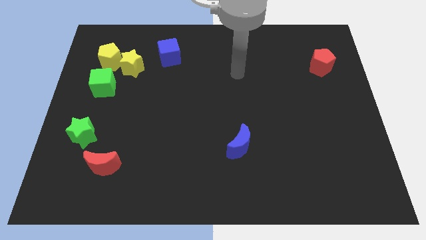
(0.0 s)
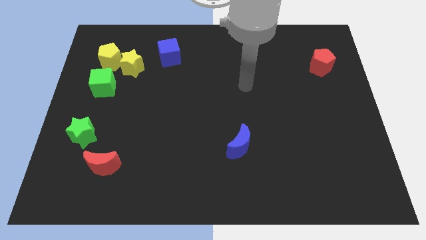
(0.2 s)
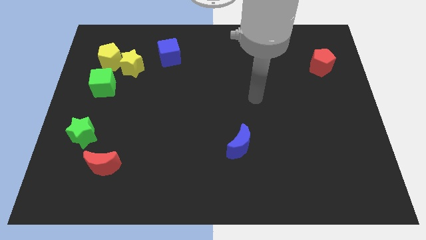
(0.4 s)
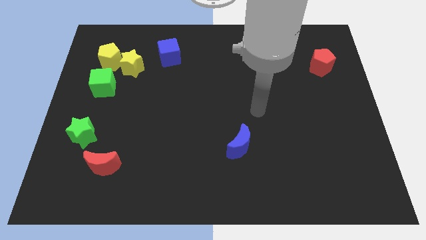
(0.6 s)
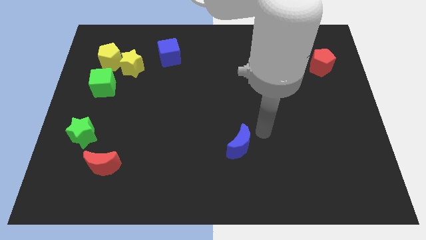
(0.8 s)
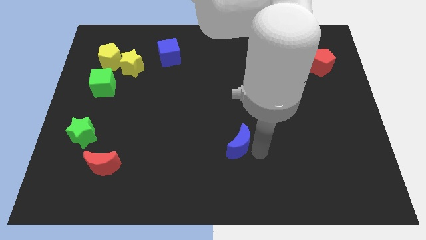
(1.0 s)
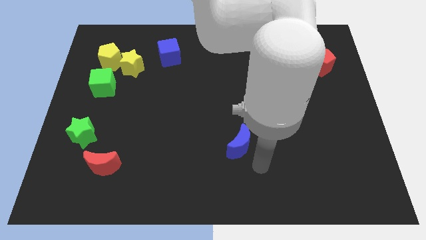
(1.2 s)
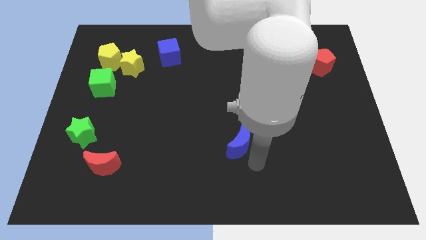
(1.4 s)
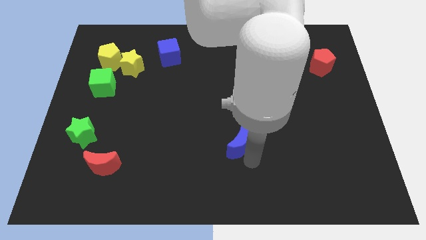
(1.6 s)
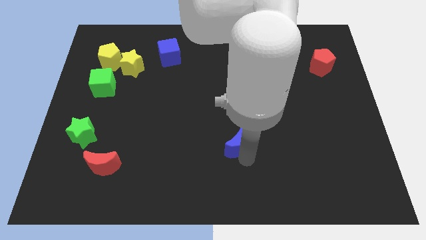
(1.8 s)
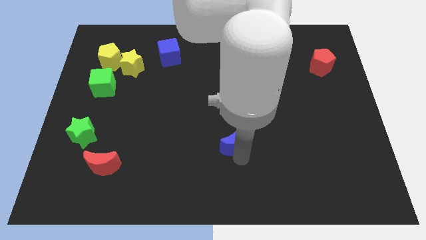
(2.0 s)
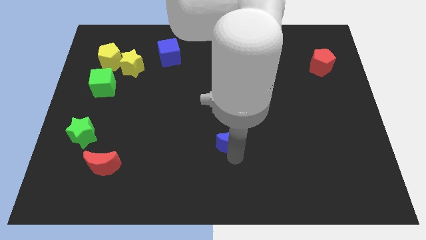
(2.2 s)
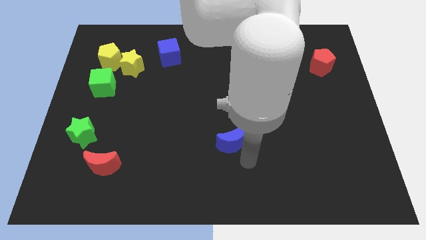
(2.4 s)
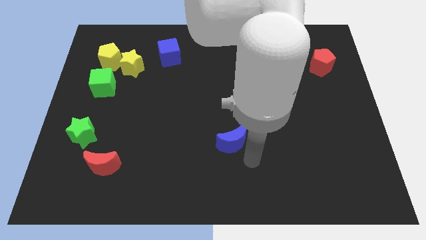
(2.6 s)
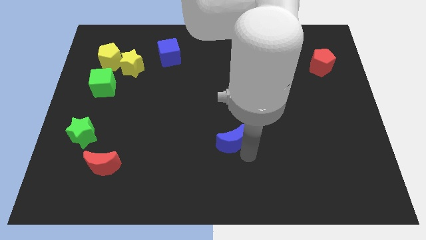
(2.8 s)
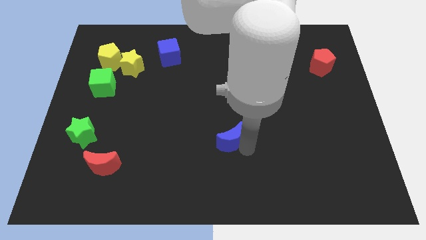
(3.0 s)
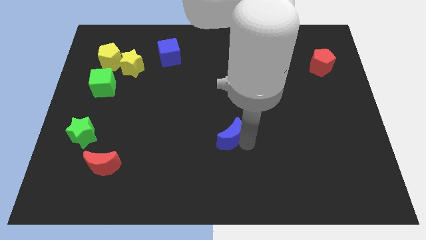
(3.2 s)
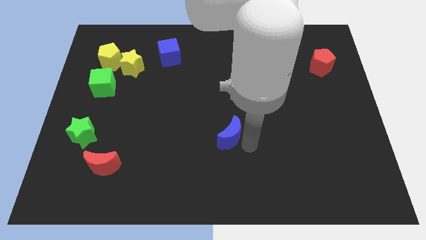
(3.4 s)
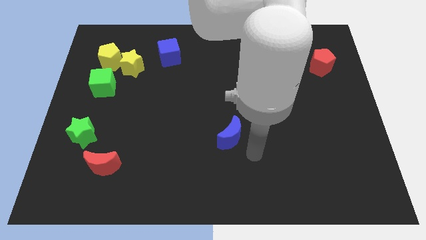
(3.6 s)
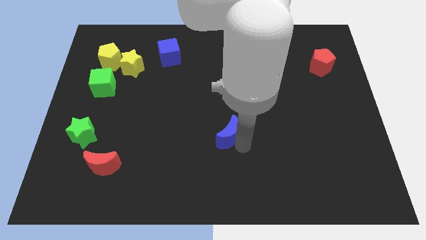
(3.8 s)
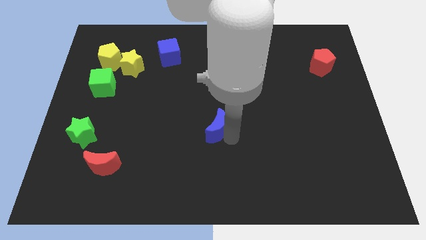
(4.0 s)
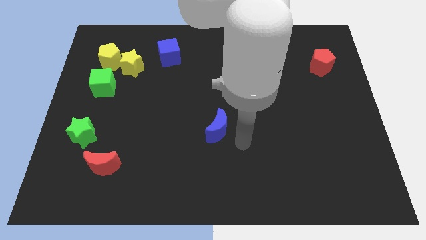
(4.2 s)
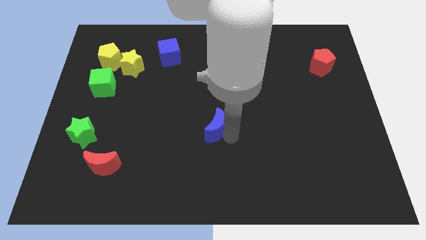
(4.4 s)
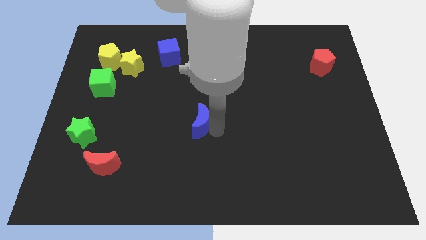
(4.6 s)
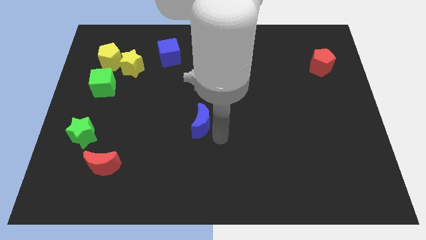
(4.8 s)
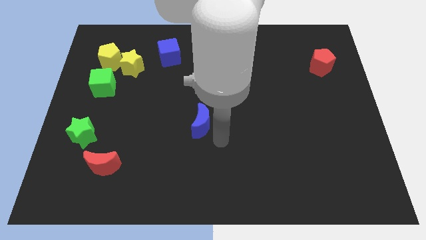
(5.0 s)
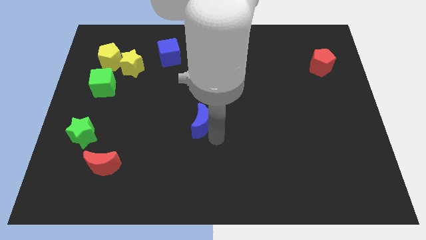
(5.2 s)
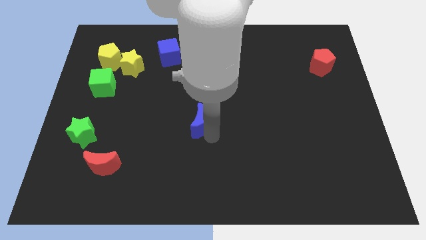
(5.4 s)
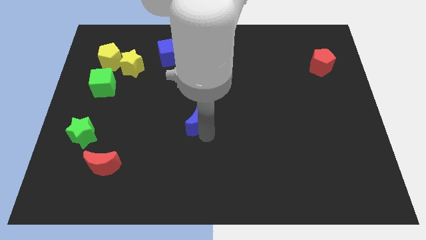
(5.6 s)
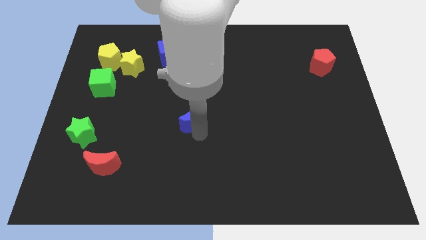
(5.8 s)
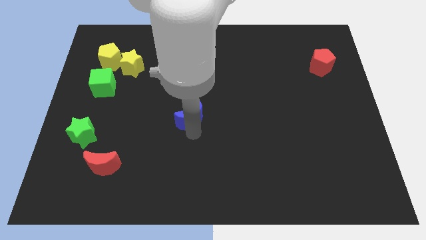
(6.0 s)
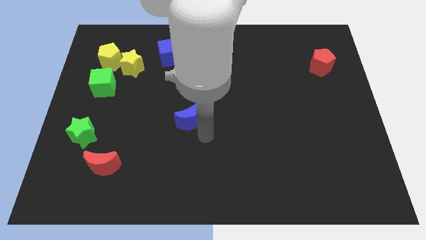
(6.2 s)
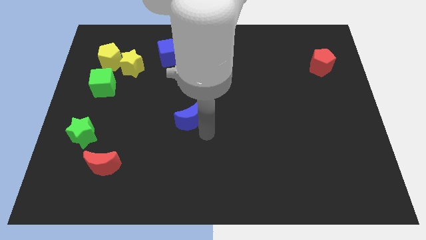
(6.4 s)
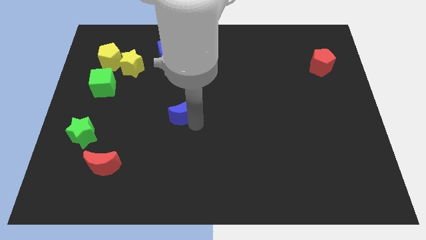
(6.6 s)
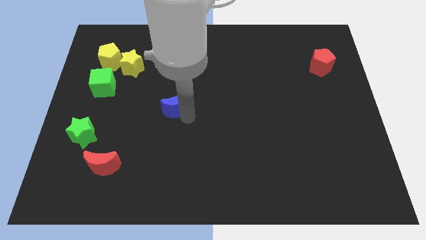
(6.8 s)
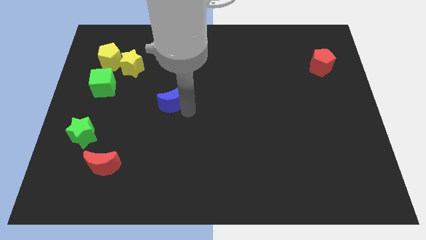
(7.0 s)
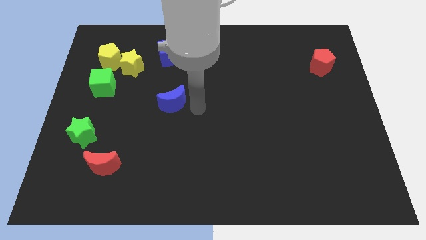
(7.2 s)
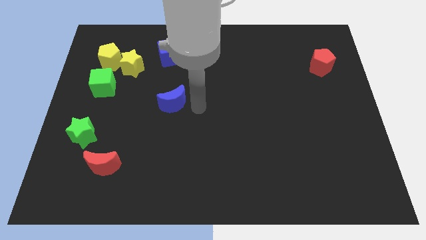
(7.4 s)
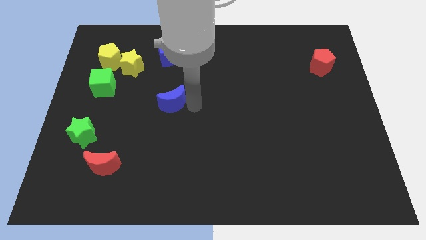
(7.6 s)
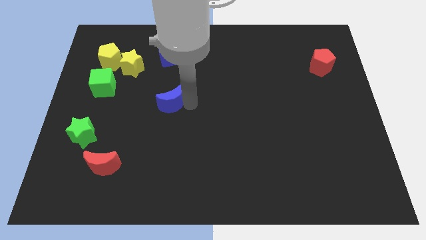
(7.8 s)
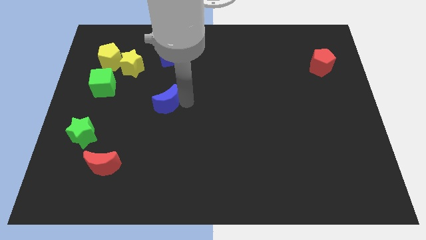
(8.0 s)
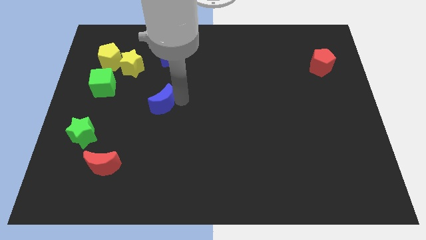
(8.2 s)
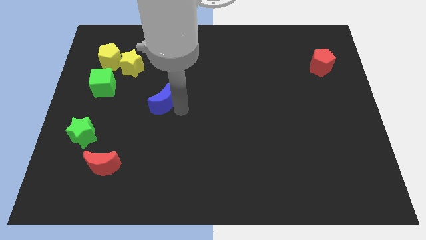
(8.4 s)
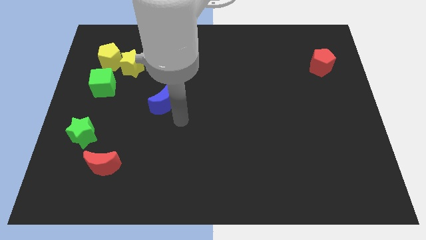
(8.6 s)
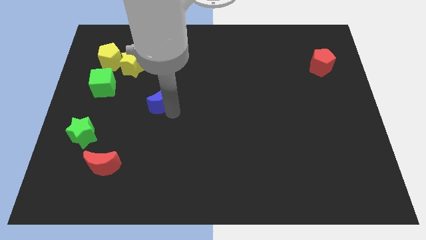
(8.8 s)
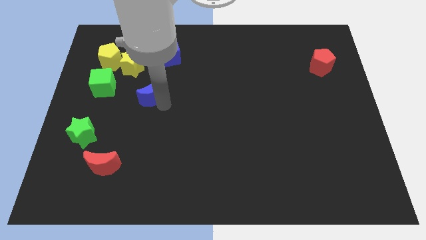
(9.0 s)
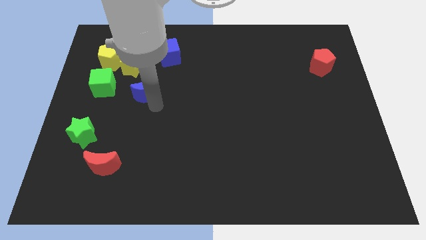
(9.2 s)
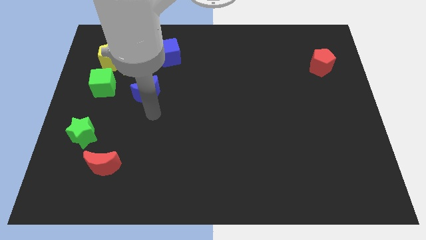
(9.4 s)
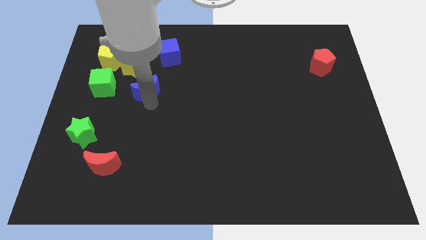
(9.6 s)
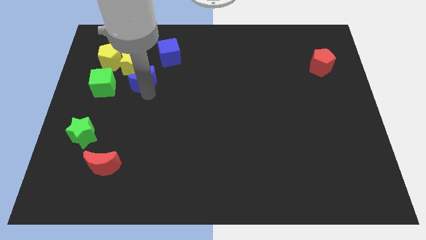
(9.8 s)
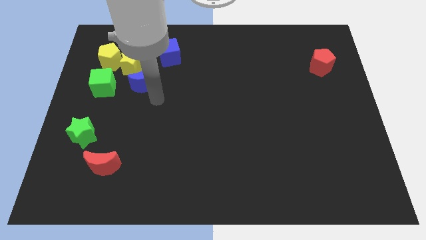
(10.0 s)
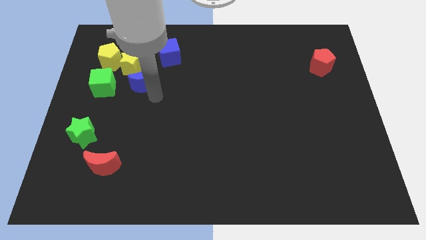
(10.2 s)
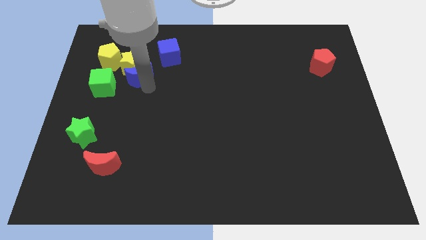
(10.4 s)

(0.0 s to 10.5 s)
move the blue moon next to the yellow star

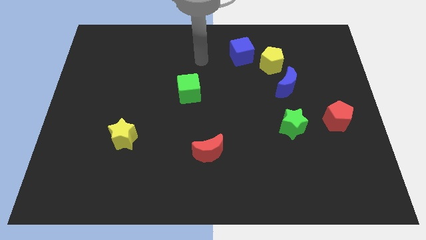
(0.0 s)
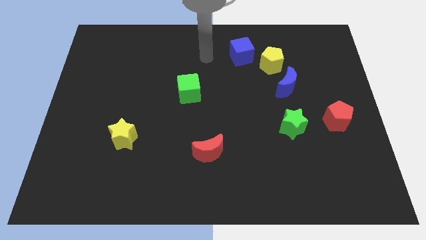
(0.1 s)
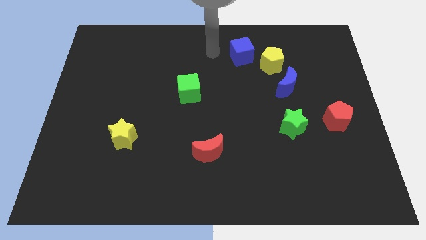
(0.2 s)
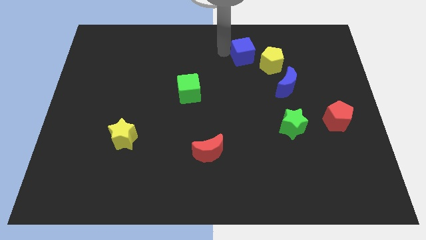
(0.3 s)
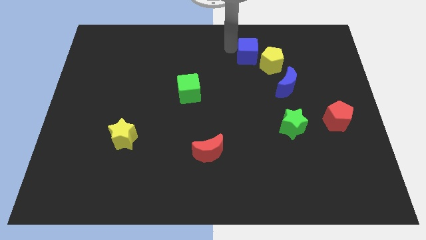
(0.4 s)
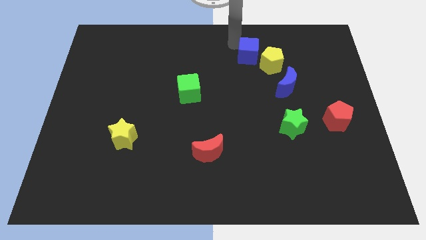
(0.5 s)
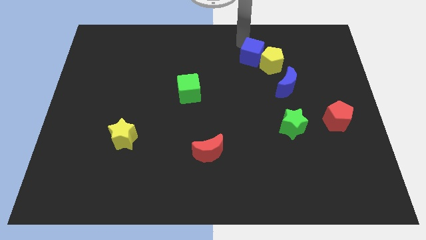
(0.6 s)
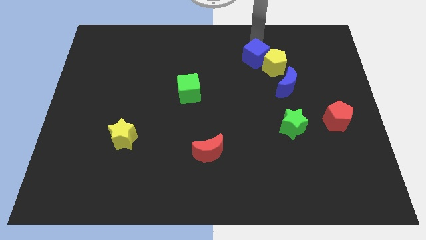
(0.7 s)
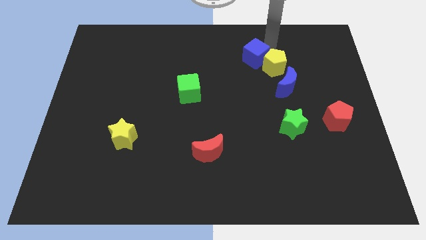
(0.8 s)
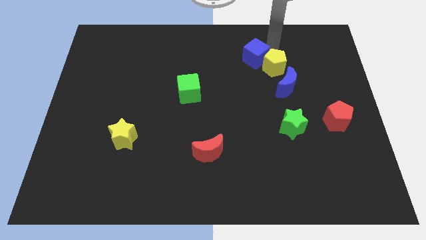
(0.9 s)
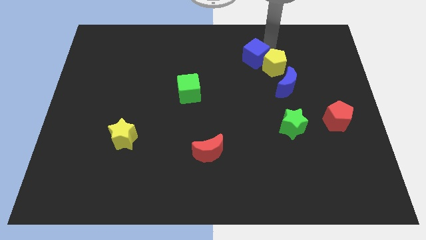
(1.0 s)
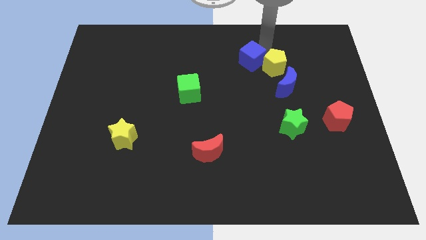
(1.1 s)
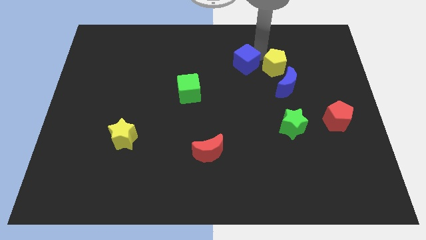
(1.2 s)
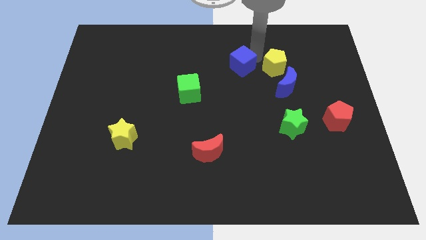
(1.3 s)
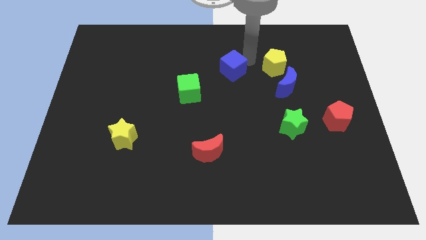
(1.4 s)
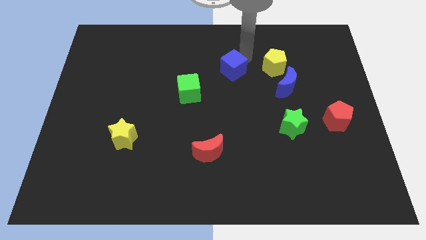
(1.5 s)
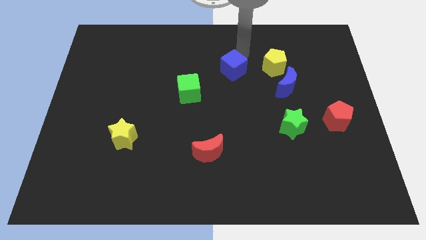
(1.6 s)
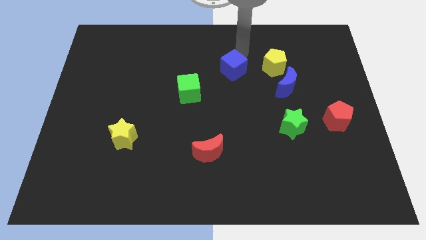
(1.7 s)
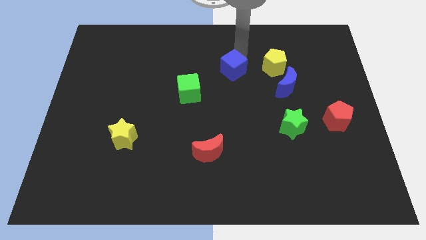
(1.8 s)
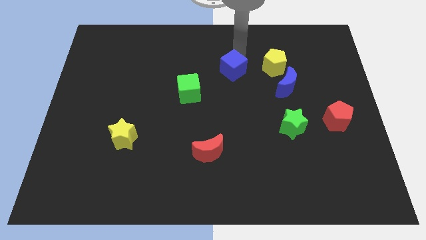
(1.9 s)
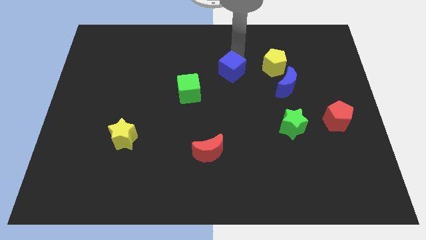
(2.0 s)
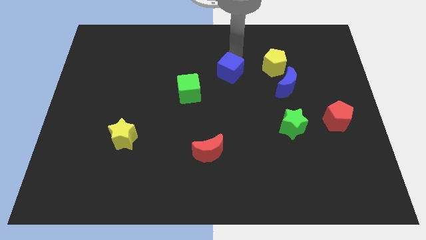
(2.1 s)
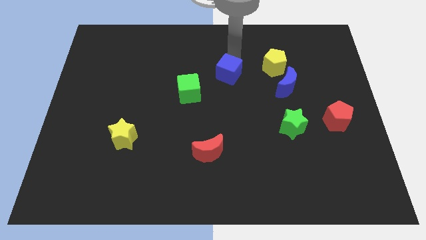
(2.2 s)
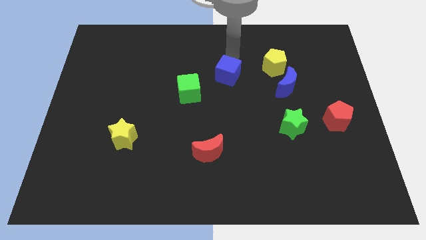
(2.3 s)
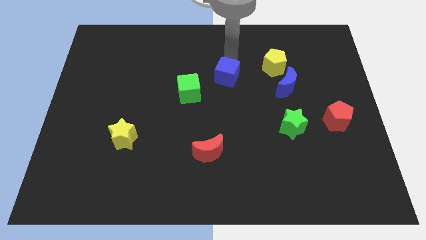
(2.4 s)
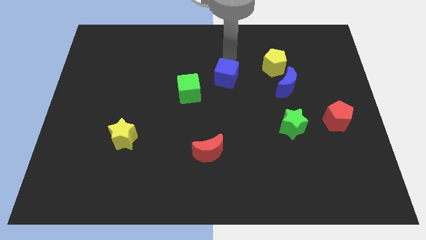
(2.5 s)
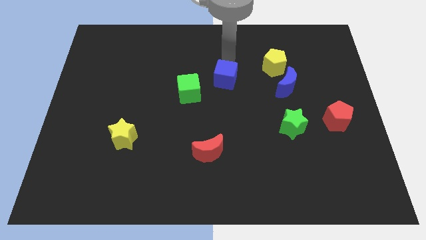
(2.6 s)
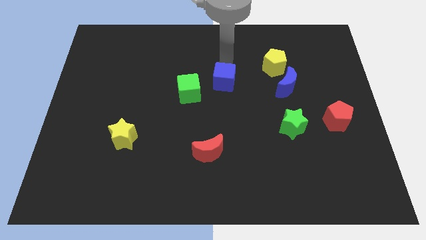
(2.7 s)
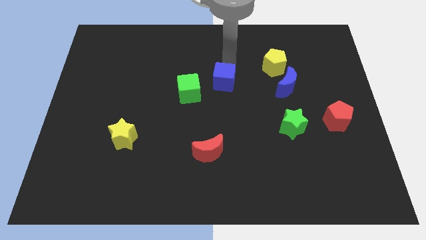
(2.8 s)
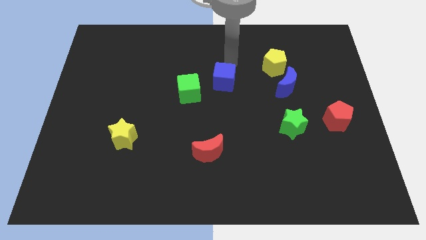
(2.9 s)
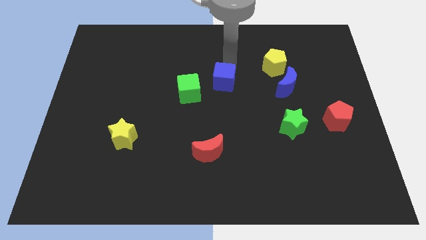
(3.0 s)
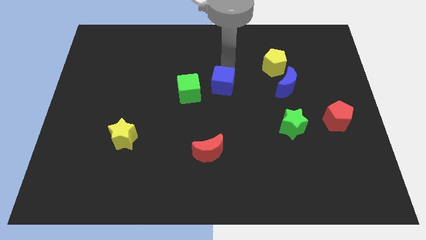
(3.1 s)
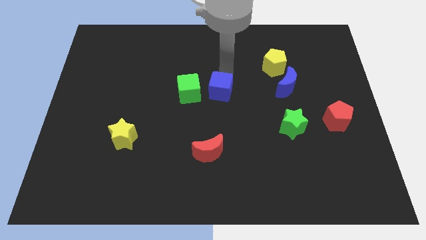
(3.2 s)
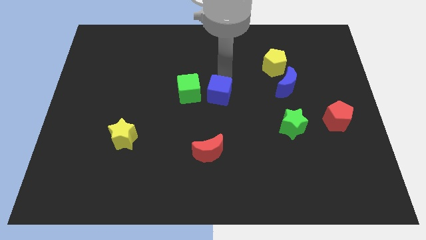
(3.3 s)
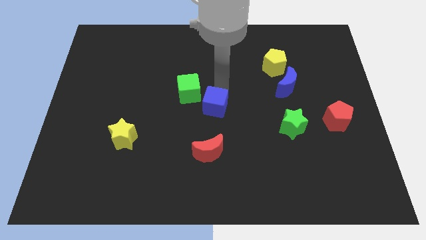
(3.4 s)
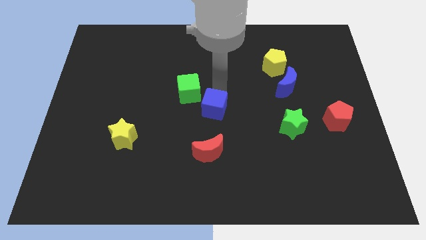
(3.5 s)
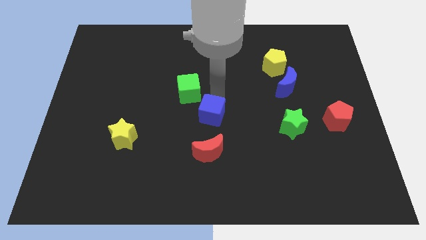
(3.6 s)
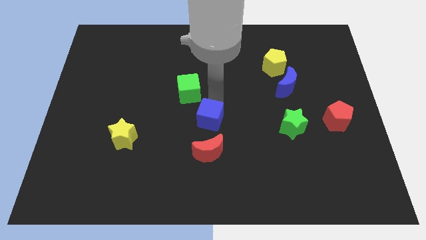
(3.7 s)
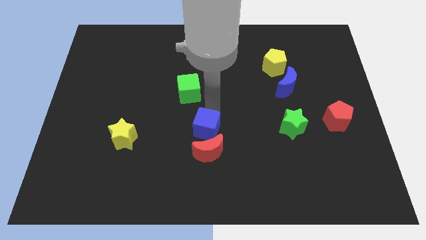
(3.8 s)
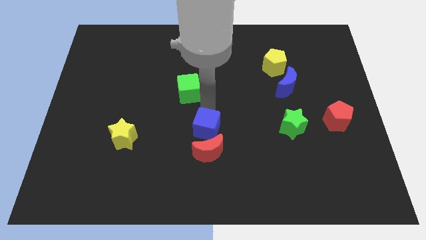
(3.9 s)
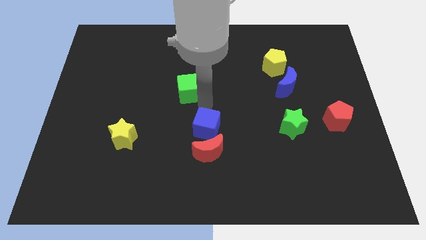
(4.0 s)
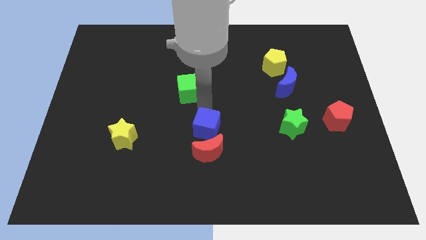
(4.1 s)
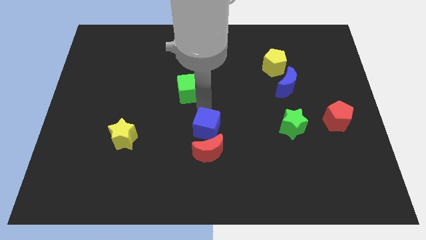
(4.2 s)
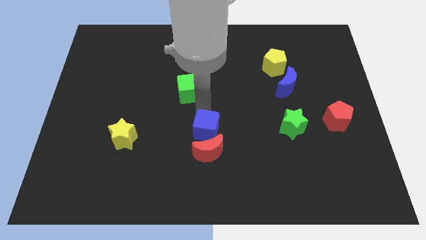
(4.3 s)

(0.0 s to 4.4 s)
move the blue cube next to the red moon
